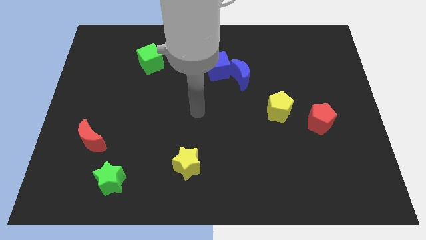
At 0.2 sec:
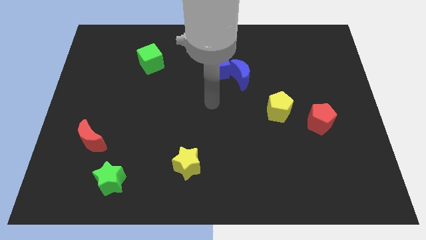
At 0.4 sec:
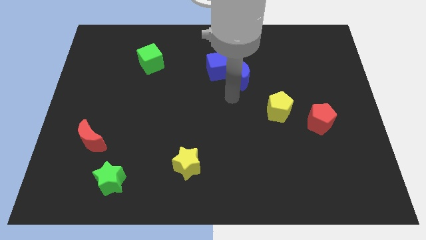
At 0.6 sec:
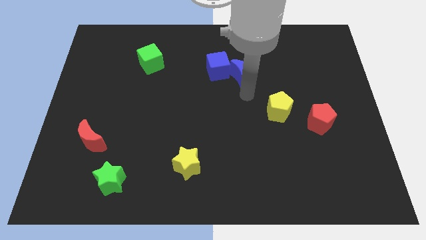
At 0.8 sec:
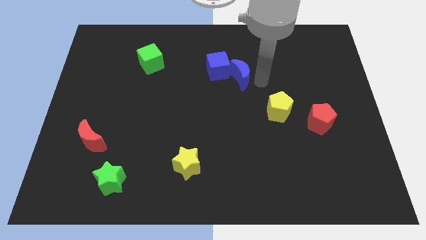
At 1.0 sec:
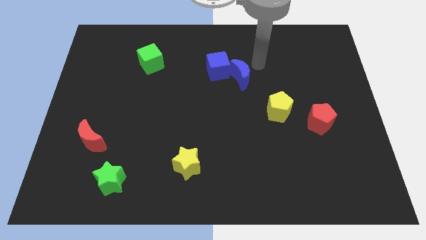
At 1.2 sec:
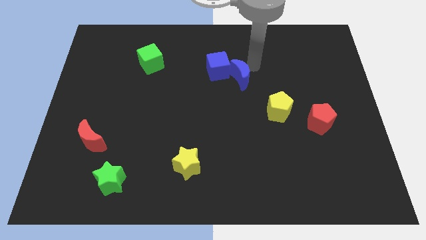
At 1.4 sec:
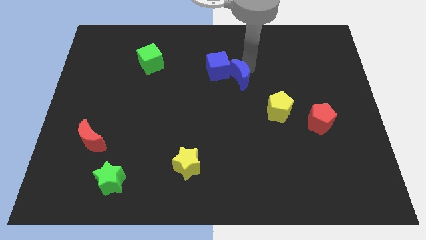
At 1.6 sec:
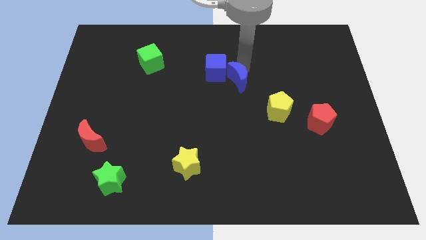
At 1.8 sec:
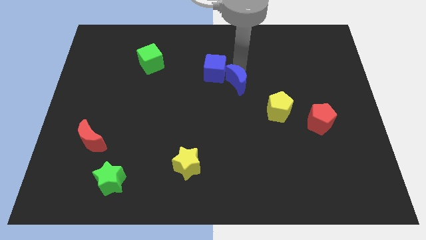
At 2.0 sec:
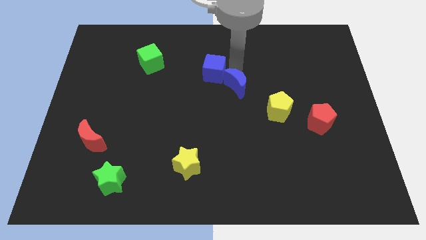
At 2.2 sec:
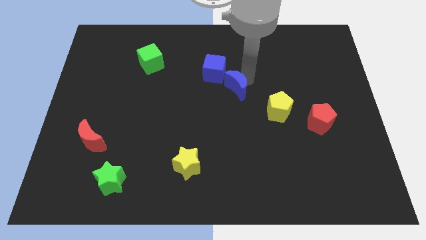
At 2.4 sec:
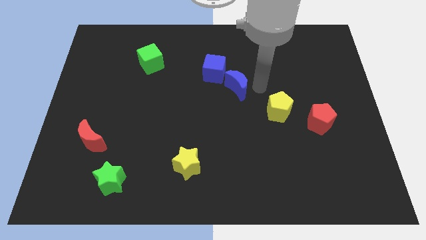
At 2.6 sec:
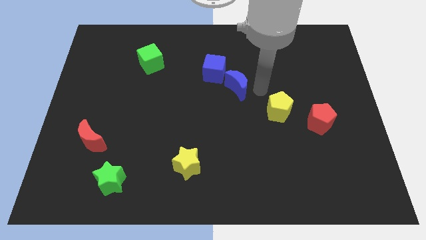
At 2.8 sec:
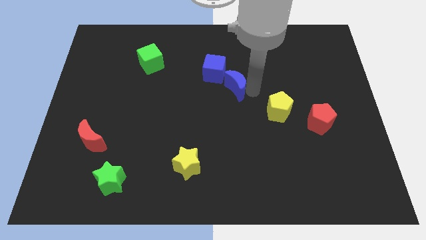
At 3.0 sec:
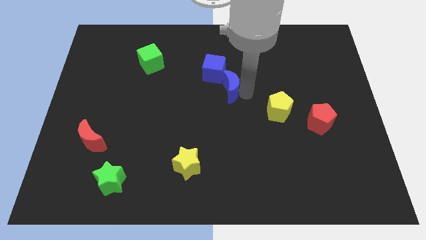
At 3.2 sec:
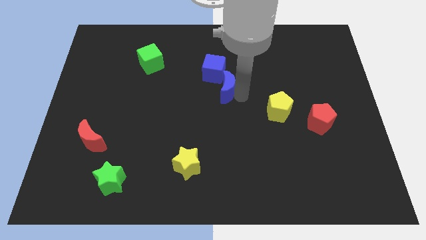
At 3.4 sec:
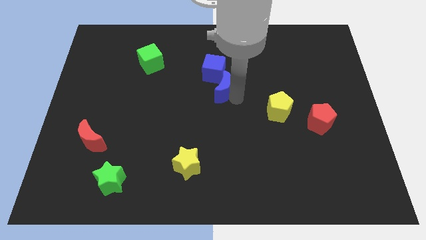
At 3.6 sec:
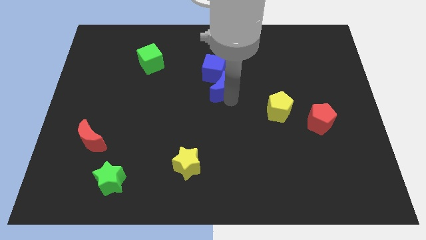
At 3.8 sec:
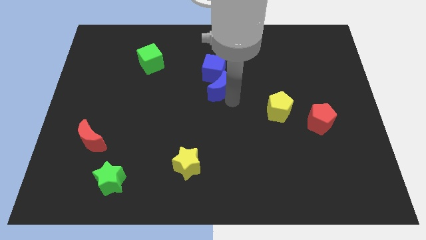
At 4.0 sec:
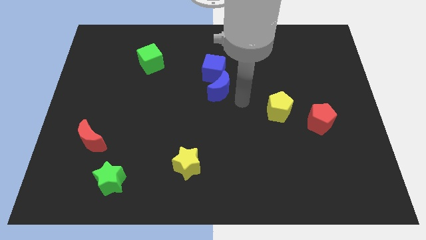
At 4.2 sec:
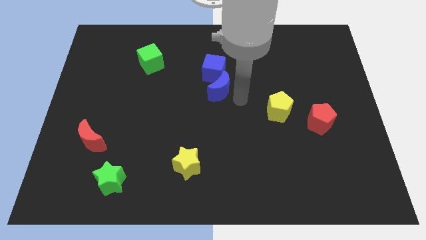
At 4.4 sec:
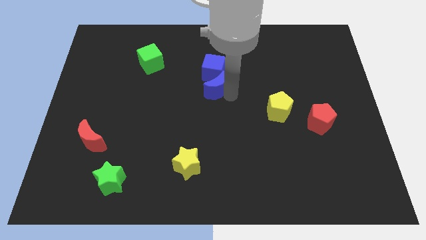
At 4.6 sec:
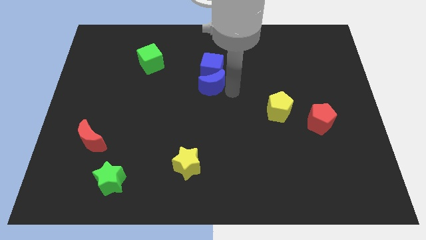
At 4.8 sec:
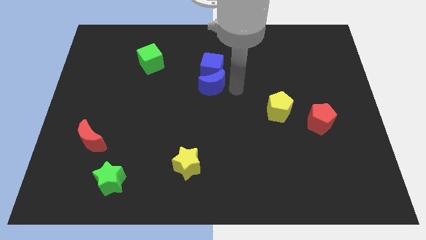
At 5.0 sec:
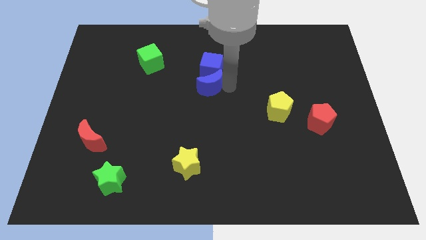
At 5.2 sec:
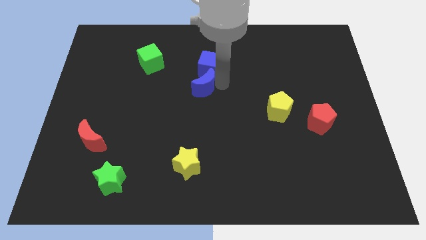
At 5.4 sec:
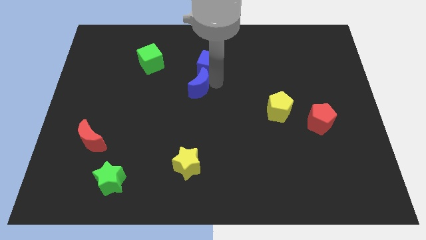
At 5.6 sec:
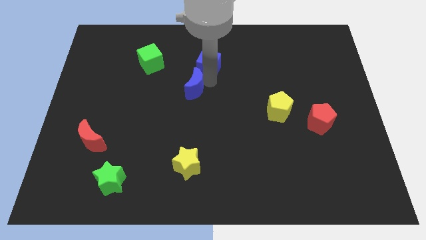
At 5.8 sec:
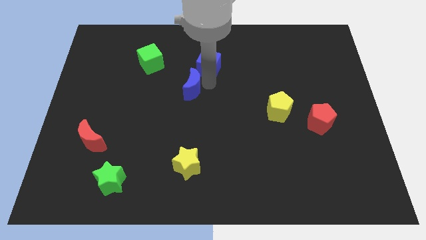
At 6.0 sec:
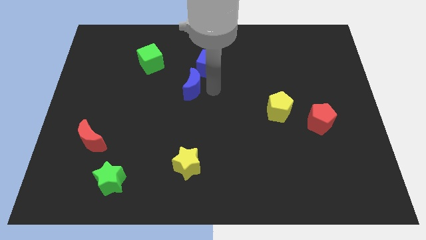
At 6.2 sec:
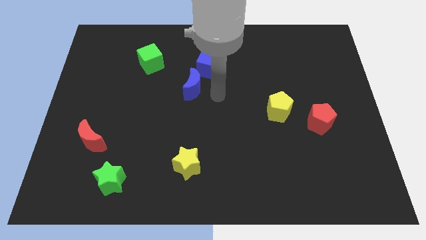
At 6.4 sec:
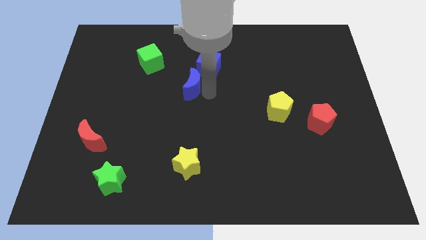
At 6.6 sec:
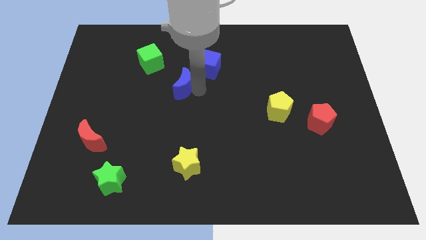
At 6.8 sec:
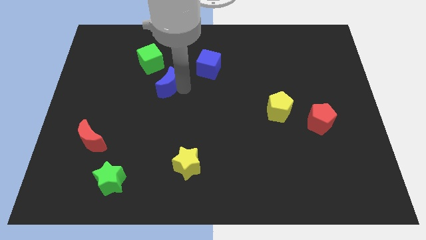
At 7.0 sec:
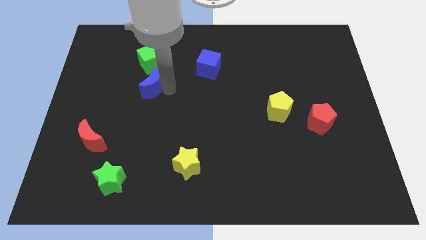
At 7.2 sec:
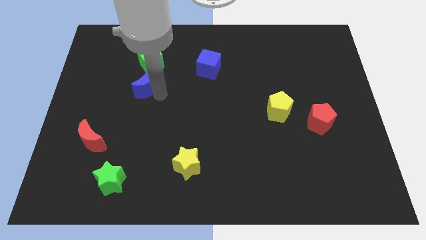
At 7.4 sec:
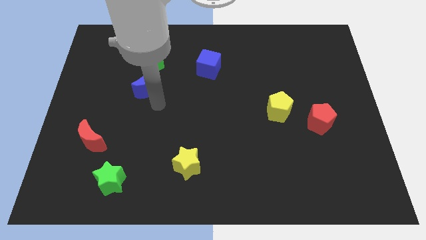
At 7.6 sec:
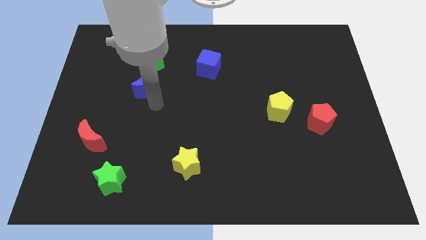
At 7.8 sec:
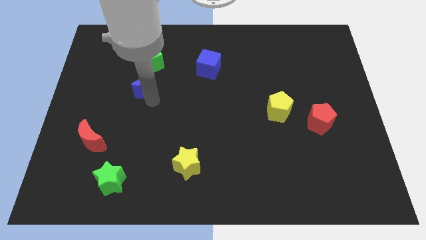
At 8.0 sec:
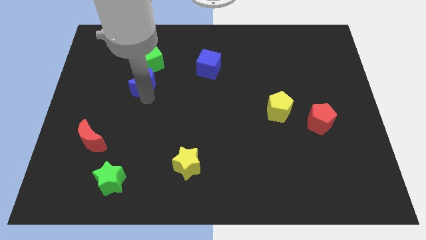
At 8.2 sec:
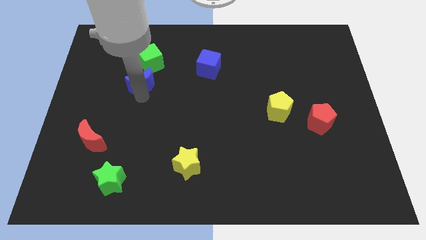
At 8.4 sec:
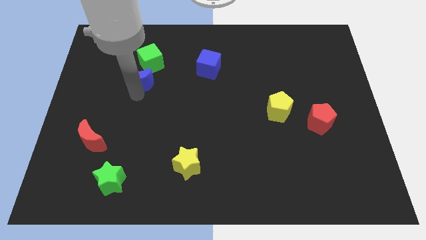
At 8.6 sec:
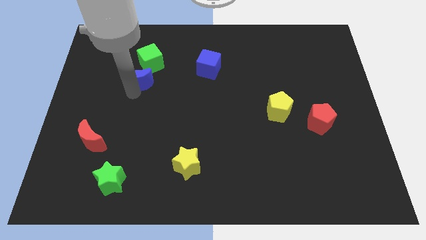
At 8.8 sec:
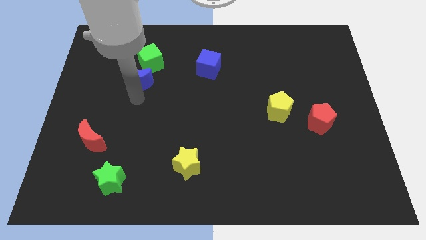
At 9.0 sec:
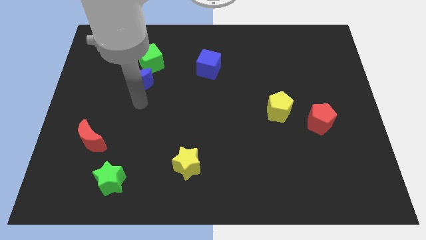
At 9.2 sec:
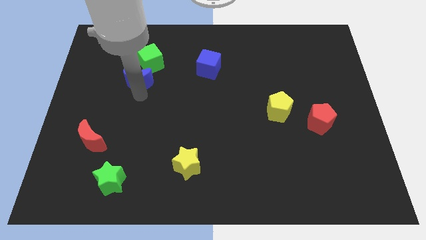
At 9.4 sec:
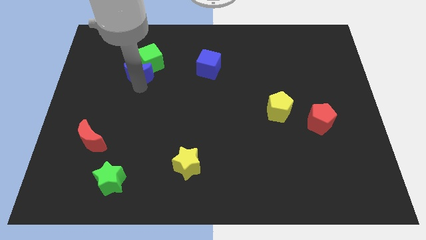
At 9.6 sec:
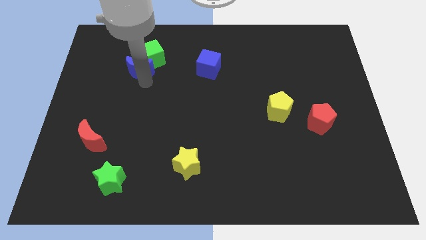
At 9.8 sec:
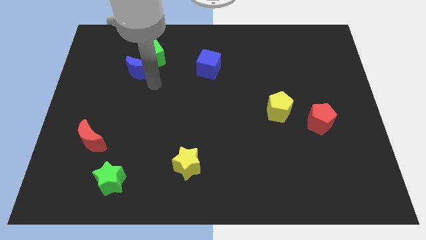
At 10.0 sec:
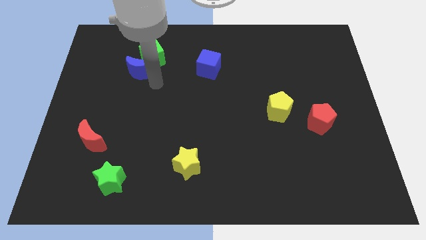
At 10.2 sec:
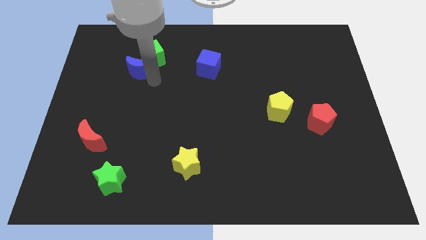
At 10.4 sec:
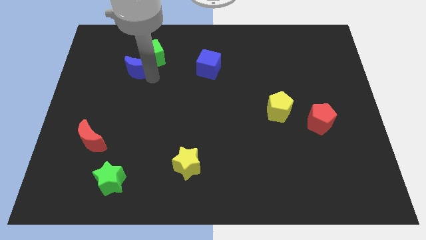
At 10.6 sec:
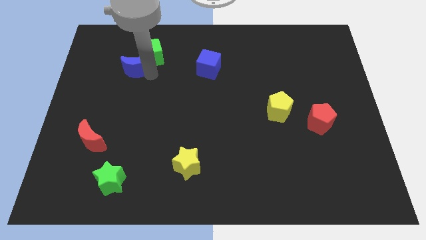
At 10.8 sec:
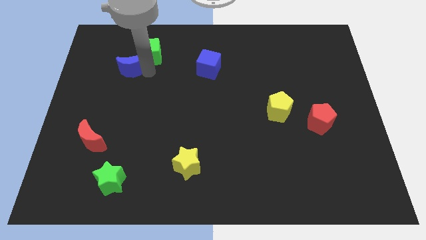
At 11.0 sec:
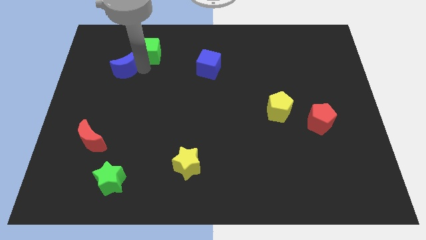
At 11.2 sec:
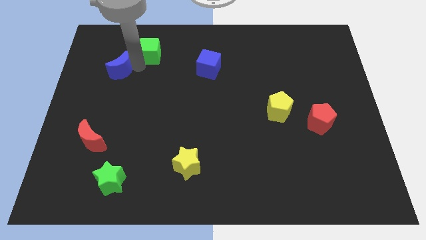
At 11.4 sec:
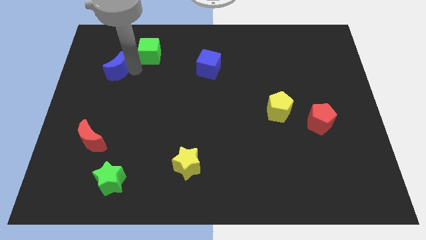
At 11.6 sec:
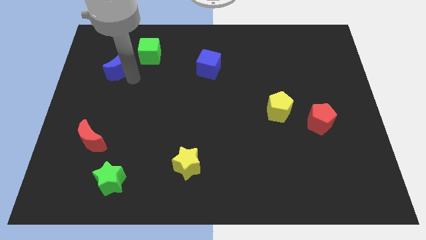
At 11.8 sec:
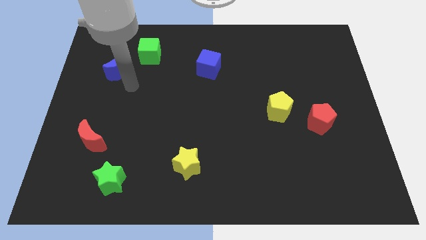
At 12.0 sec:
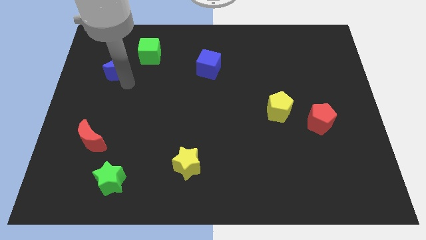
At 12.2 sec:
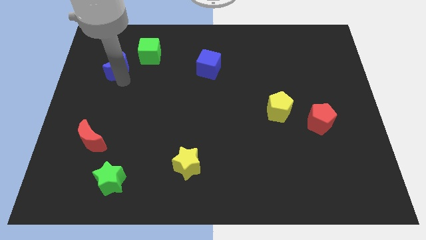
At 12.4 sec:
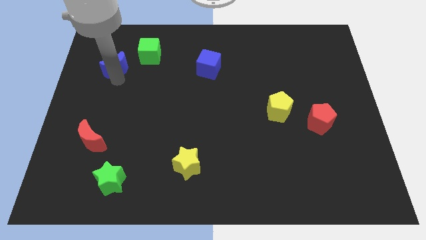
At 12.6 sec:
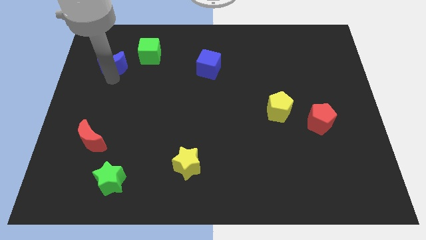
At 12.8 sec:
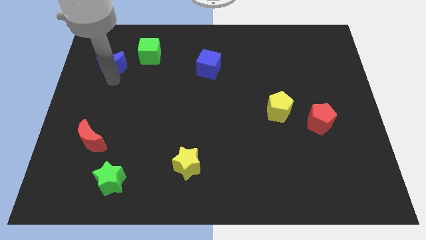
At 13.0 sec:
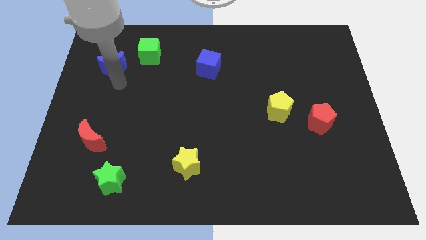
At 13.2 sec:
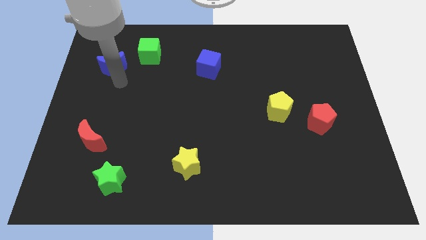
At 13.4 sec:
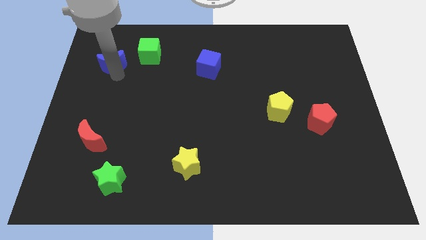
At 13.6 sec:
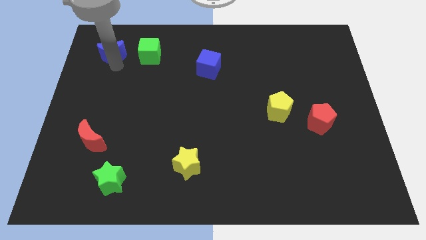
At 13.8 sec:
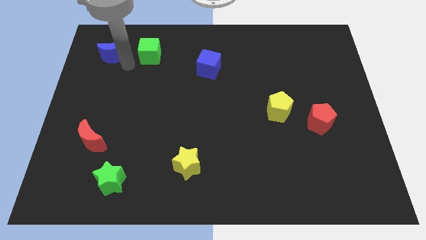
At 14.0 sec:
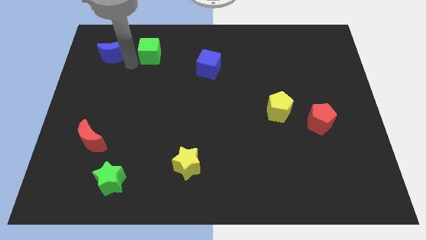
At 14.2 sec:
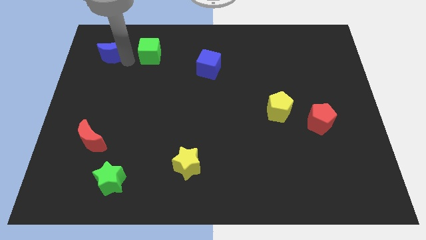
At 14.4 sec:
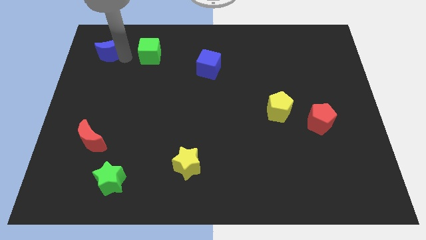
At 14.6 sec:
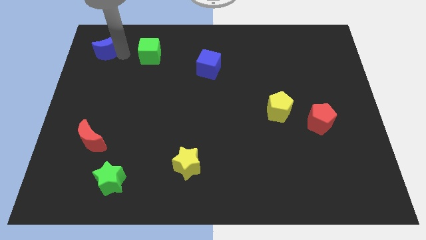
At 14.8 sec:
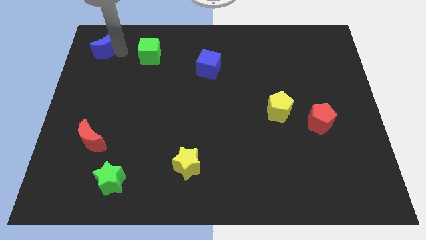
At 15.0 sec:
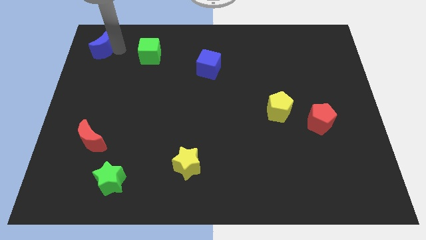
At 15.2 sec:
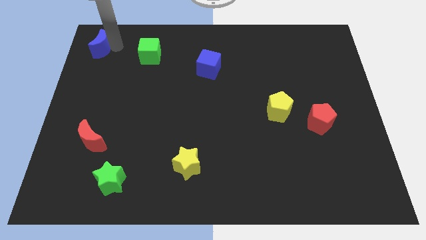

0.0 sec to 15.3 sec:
move the blue moon to the top left
